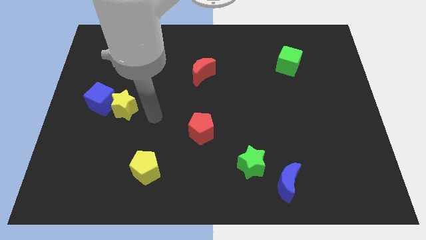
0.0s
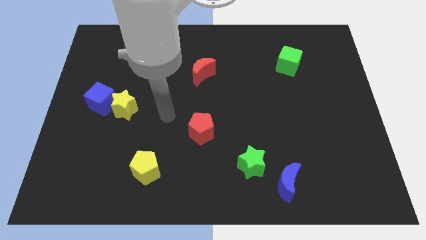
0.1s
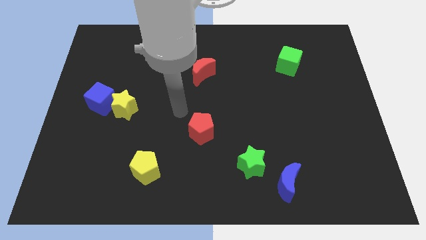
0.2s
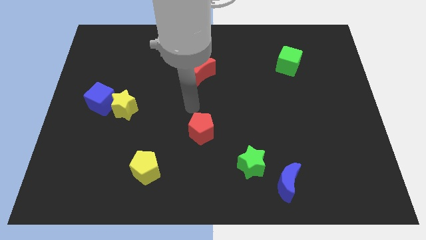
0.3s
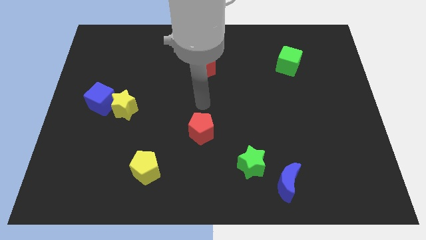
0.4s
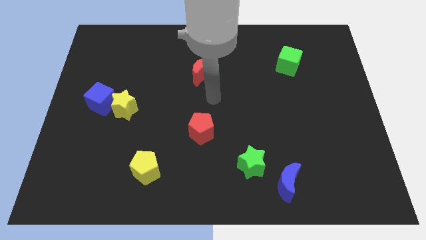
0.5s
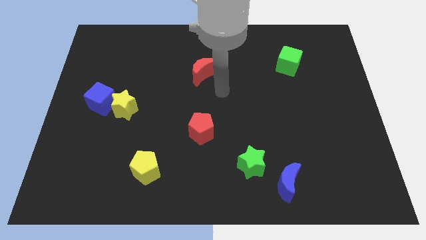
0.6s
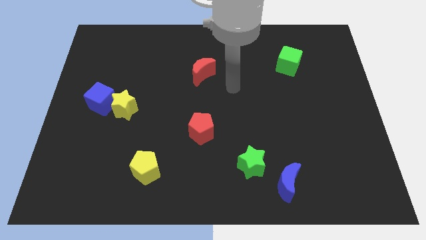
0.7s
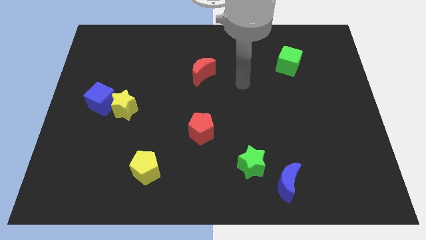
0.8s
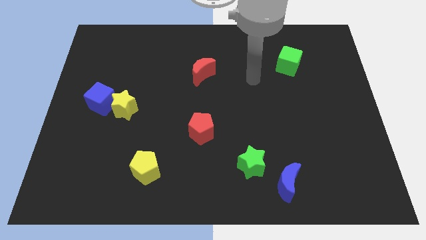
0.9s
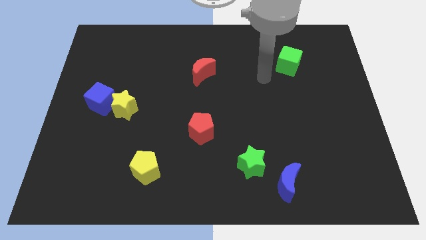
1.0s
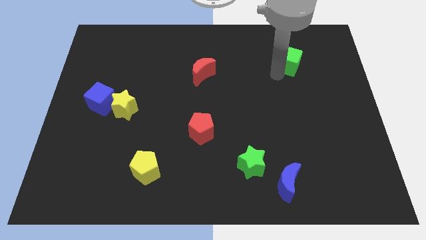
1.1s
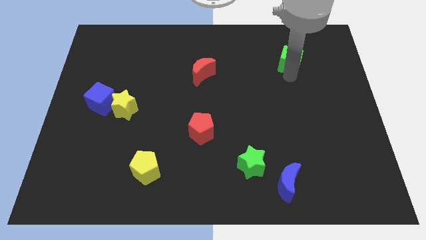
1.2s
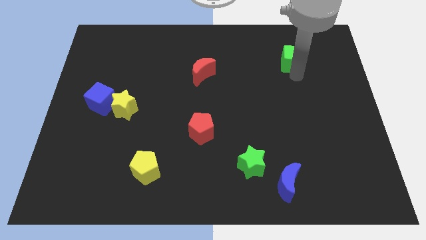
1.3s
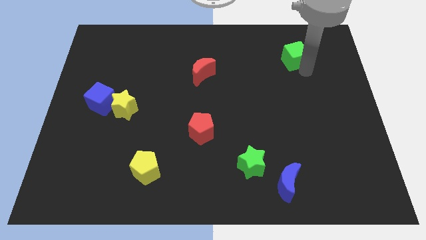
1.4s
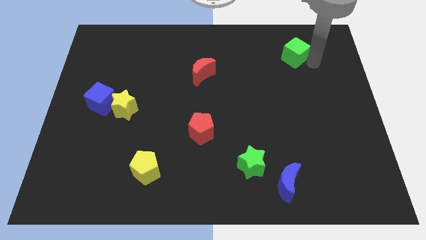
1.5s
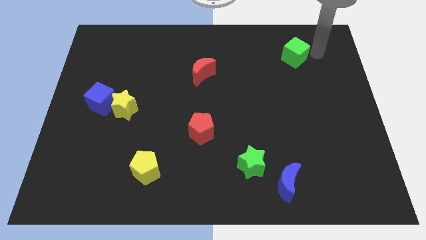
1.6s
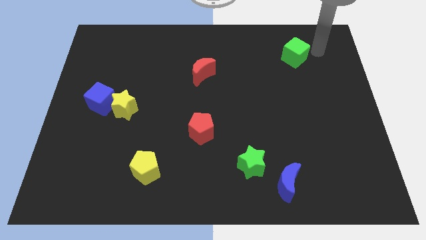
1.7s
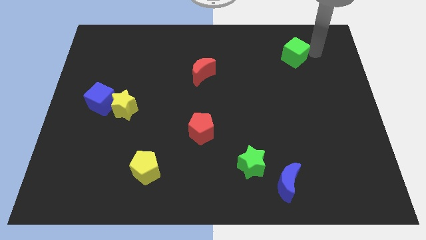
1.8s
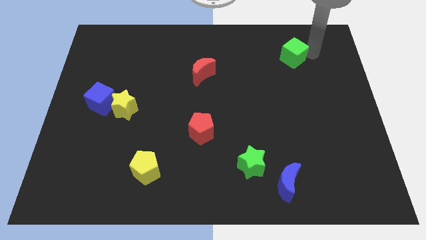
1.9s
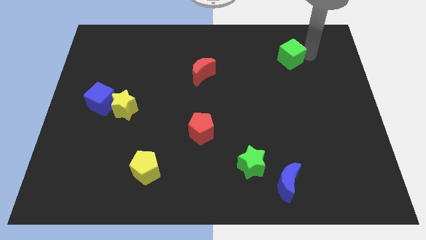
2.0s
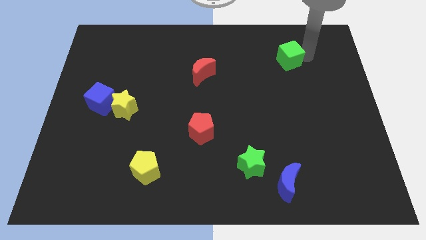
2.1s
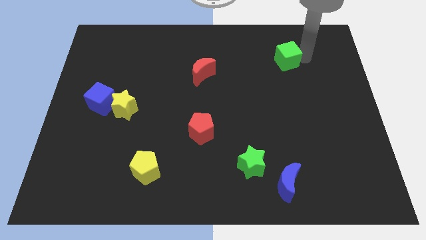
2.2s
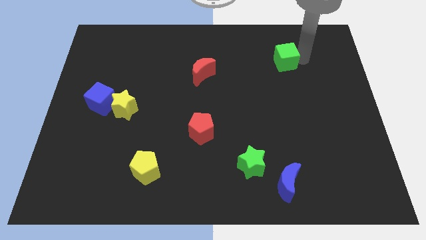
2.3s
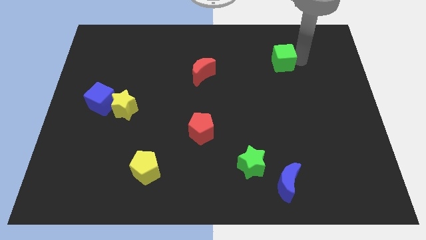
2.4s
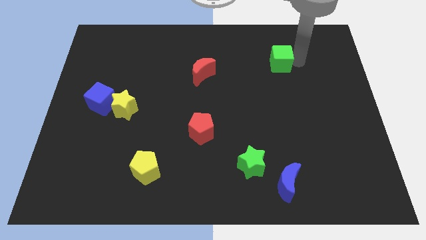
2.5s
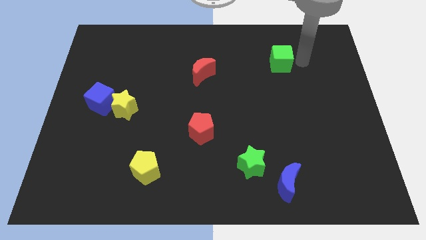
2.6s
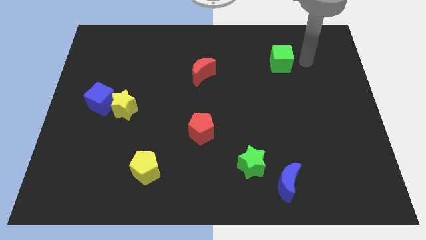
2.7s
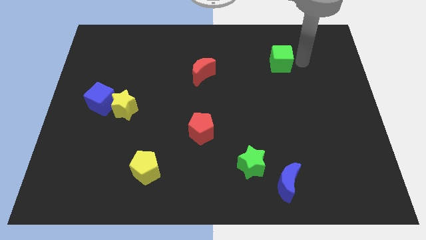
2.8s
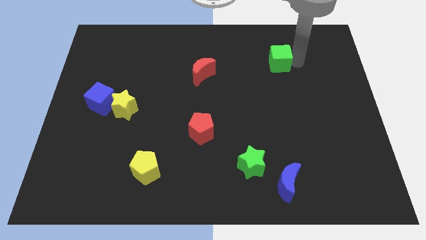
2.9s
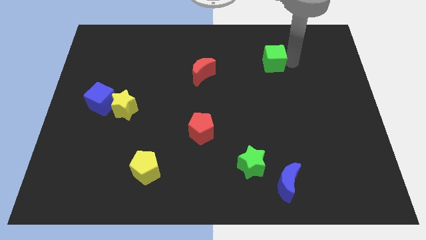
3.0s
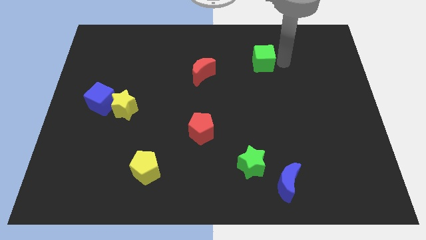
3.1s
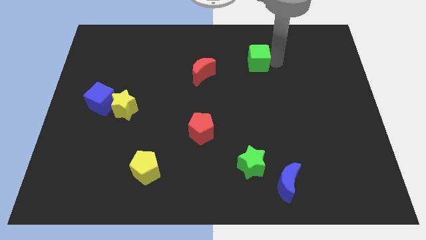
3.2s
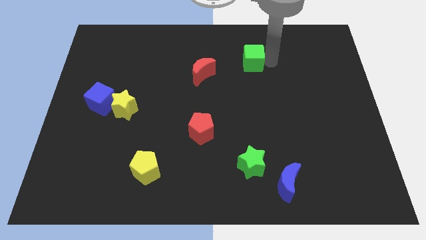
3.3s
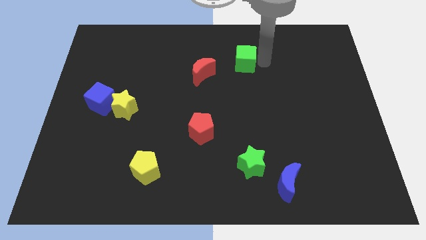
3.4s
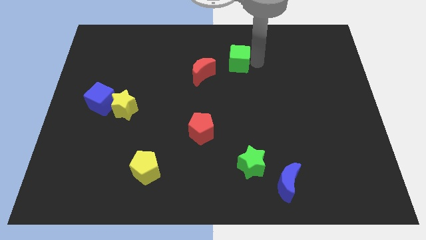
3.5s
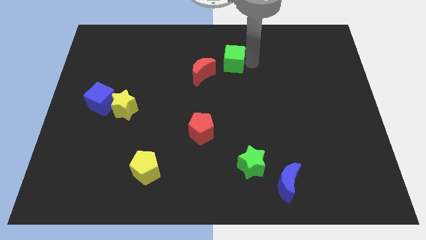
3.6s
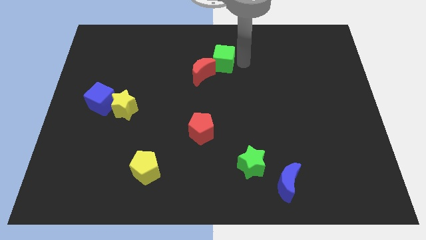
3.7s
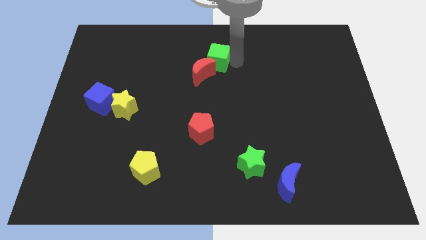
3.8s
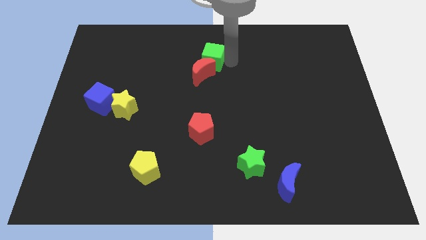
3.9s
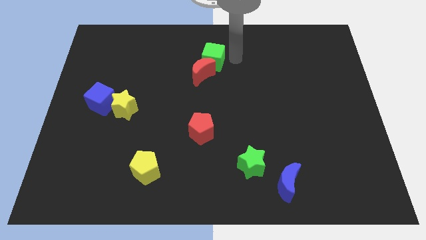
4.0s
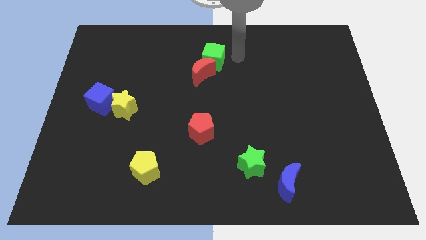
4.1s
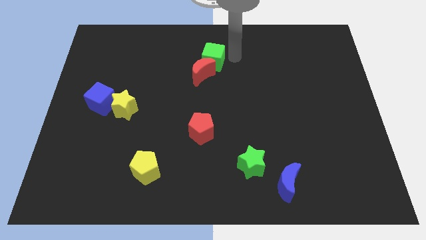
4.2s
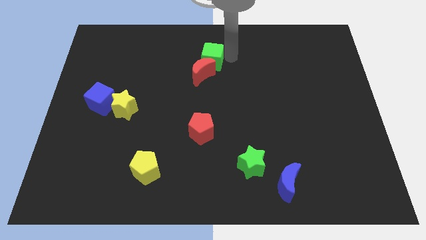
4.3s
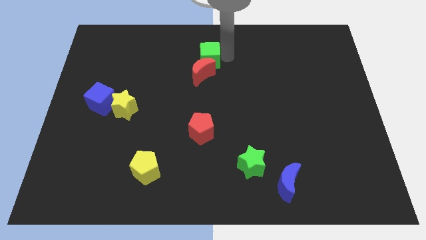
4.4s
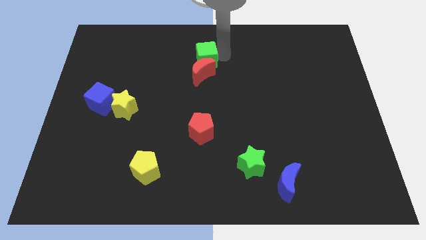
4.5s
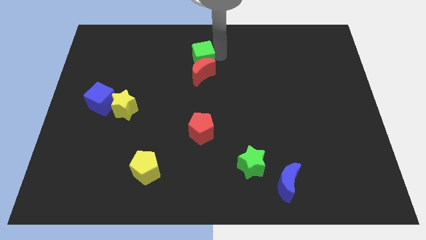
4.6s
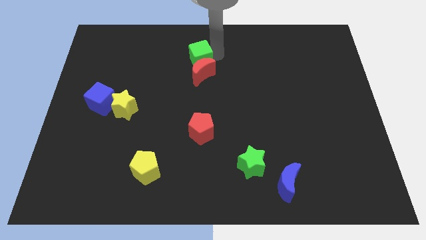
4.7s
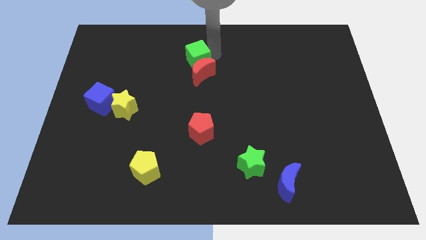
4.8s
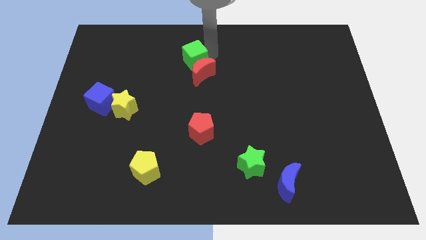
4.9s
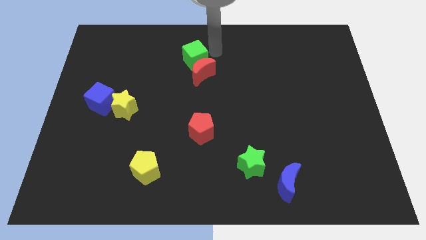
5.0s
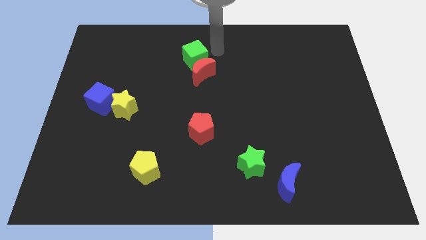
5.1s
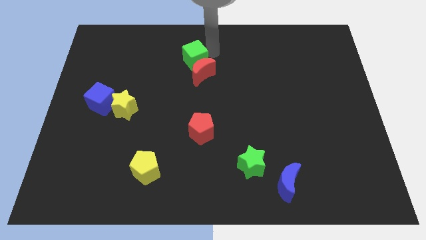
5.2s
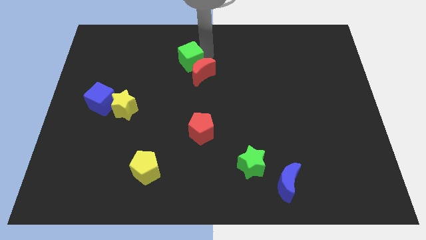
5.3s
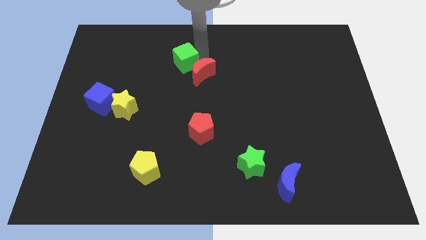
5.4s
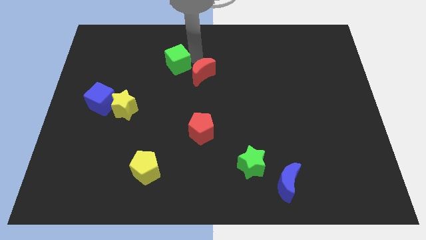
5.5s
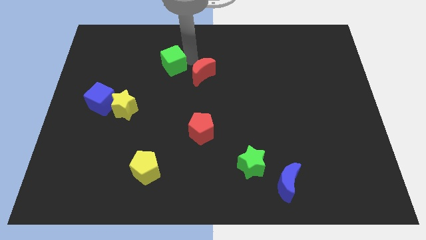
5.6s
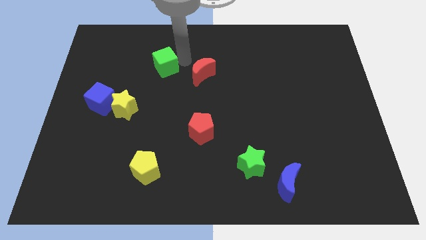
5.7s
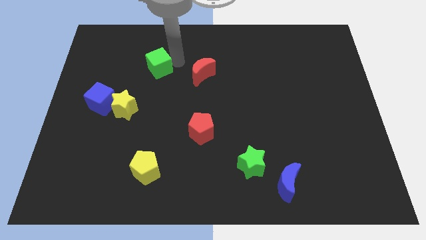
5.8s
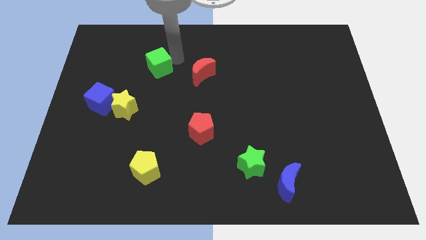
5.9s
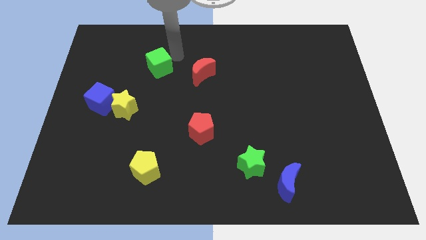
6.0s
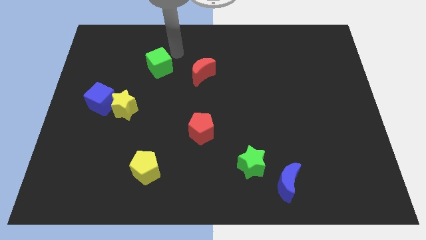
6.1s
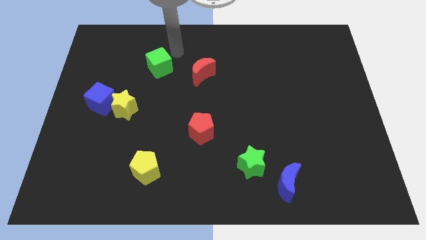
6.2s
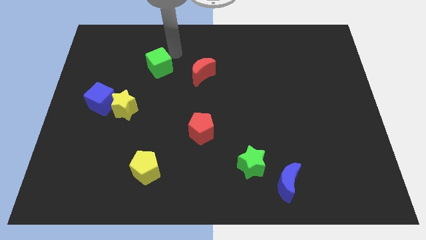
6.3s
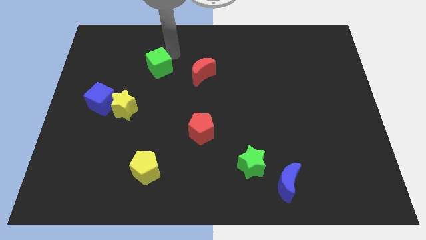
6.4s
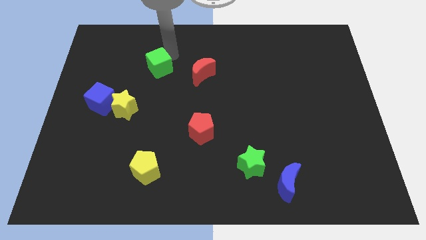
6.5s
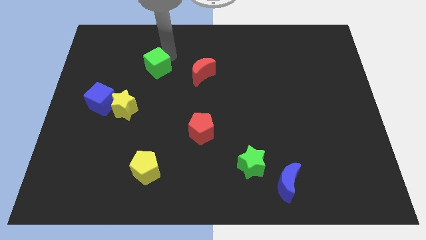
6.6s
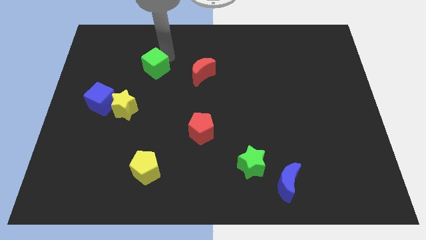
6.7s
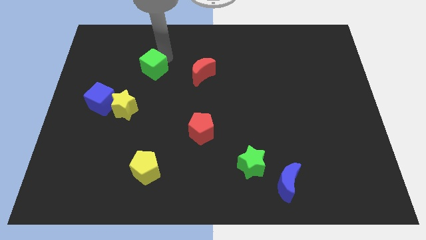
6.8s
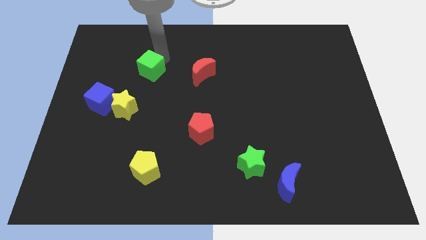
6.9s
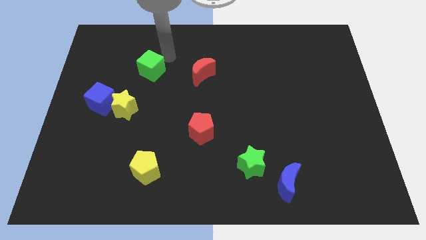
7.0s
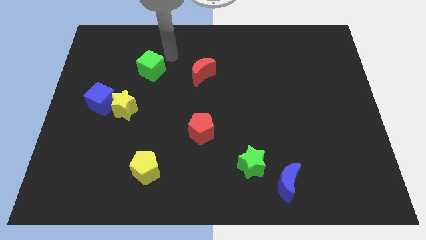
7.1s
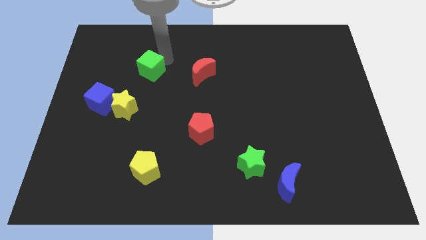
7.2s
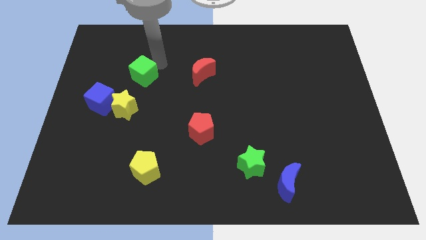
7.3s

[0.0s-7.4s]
push the green cube to the top right side of the blue cube

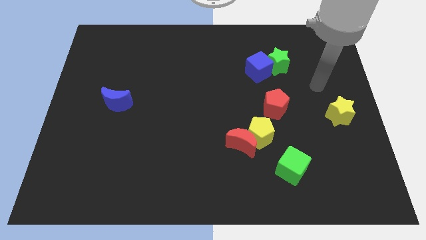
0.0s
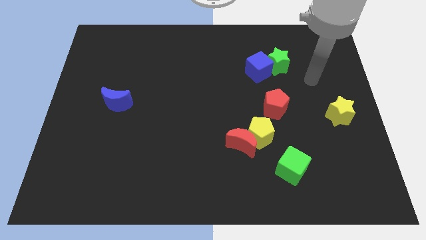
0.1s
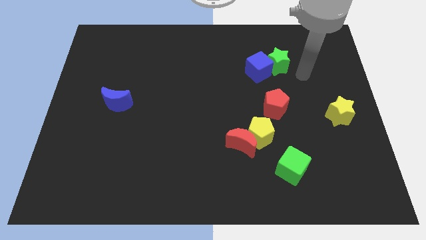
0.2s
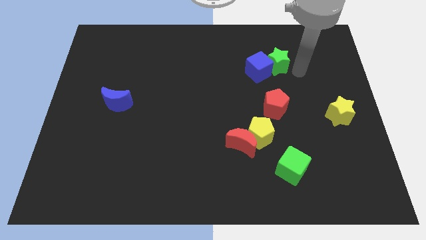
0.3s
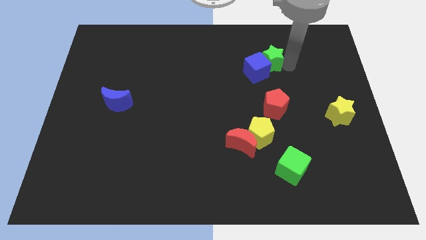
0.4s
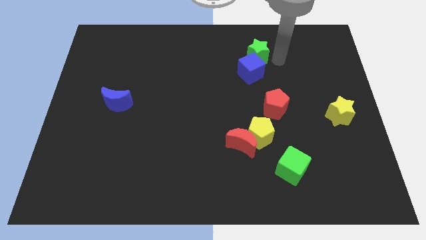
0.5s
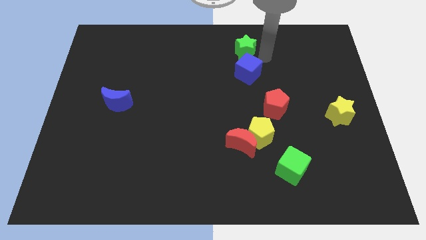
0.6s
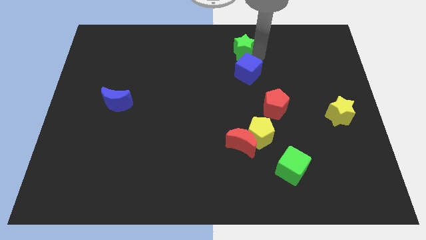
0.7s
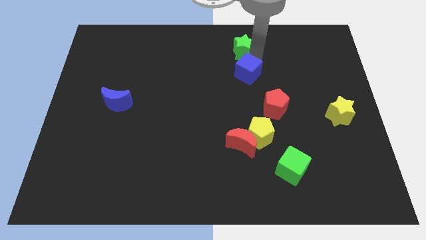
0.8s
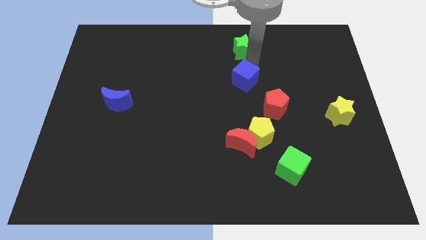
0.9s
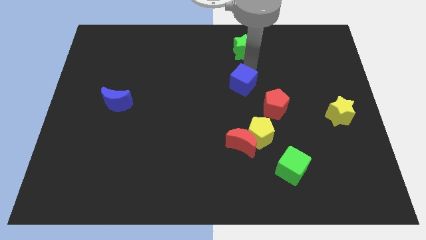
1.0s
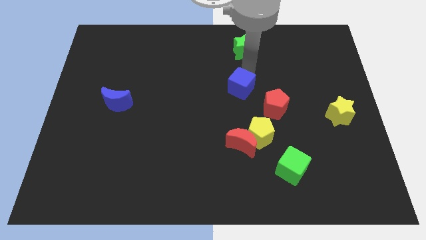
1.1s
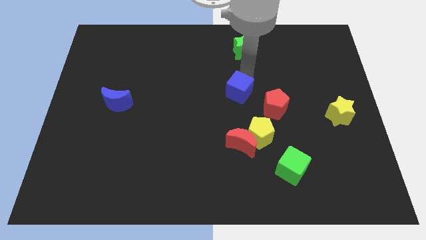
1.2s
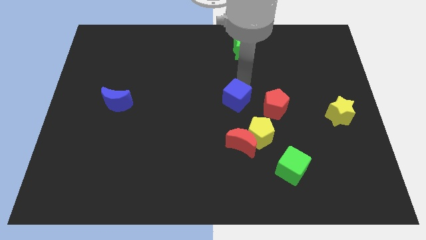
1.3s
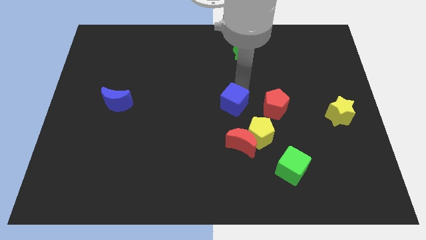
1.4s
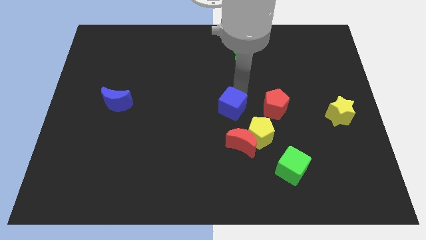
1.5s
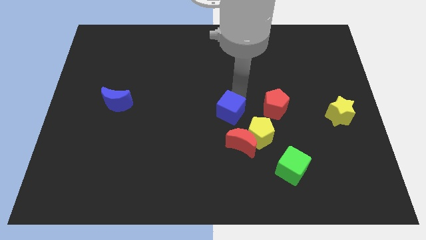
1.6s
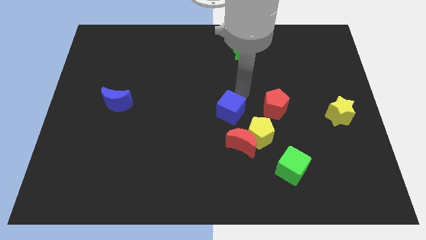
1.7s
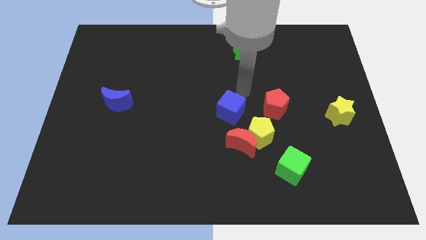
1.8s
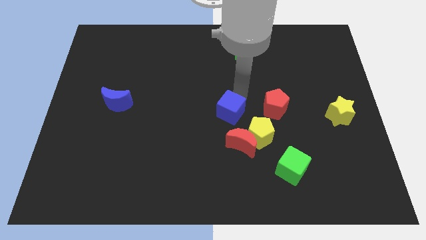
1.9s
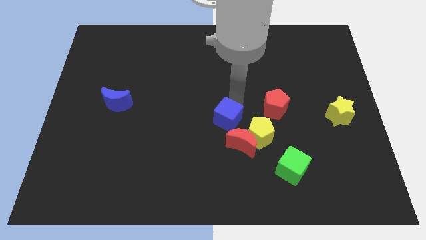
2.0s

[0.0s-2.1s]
put the blue cube to the left side of the yellow pentagon
